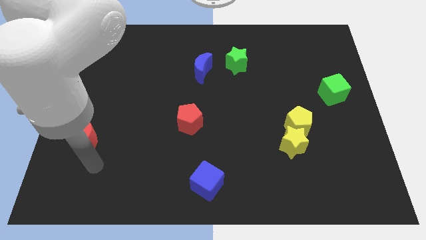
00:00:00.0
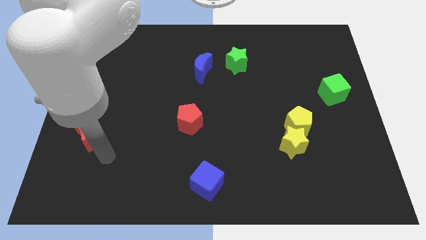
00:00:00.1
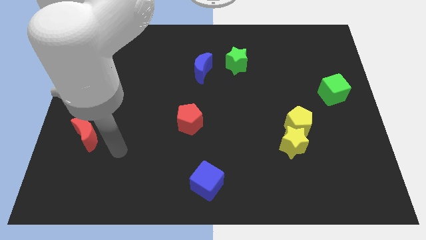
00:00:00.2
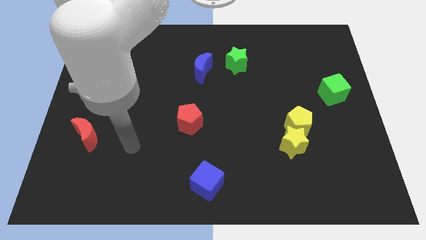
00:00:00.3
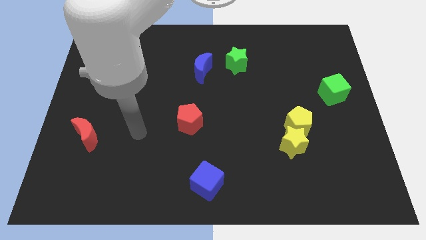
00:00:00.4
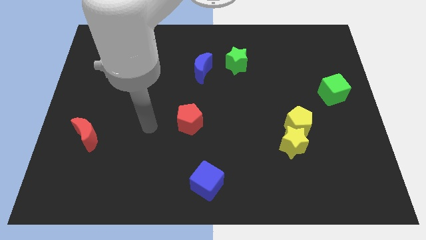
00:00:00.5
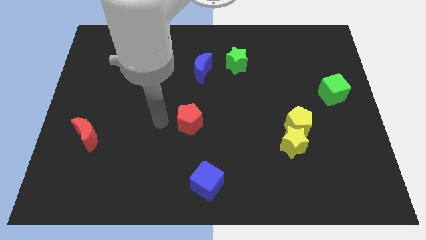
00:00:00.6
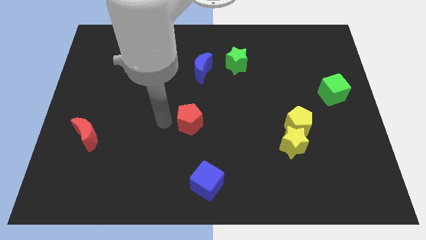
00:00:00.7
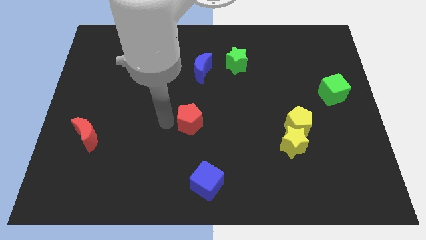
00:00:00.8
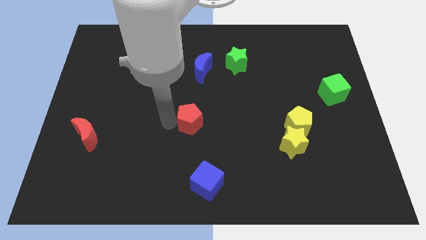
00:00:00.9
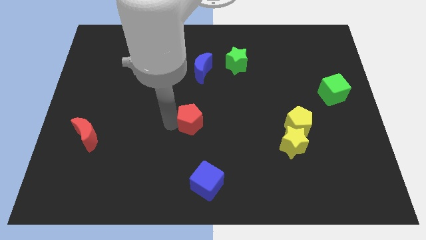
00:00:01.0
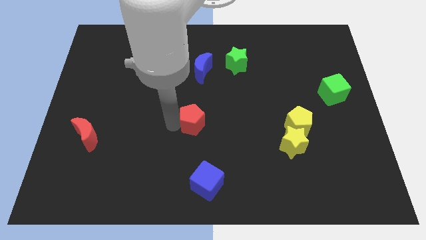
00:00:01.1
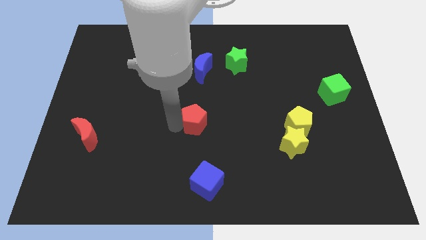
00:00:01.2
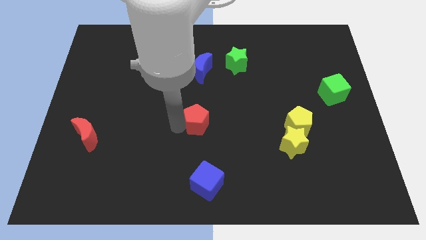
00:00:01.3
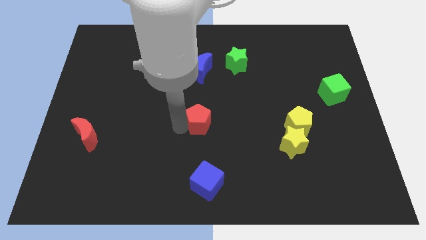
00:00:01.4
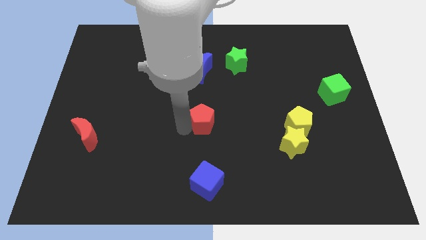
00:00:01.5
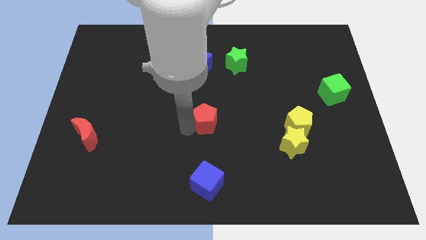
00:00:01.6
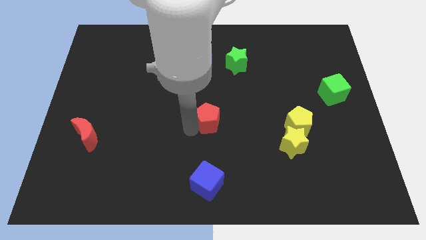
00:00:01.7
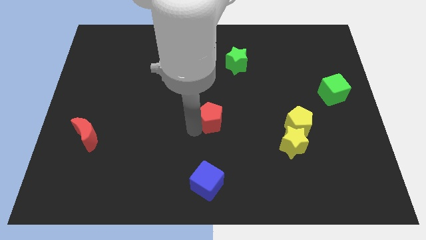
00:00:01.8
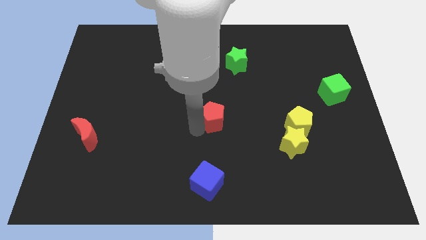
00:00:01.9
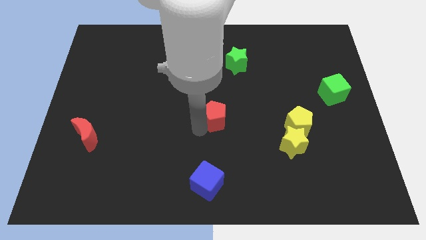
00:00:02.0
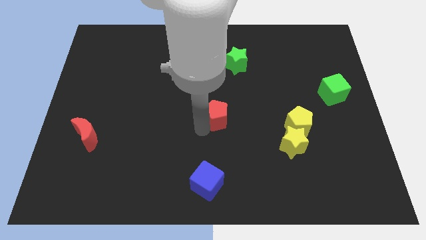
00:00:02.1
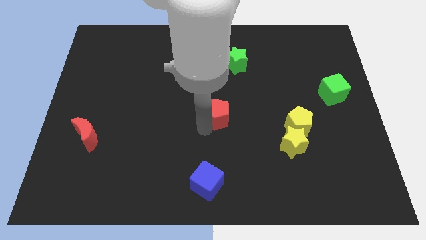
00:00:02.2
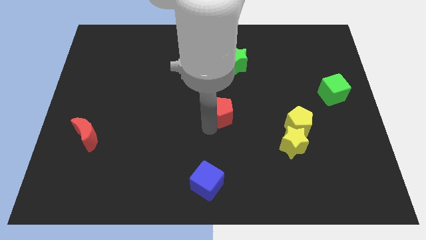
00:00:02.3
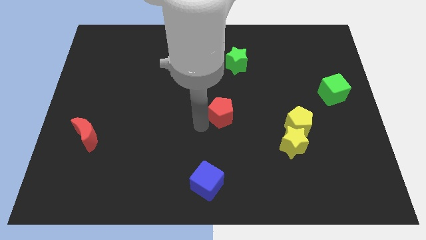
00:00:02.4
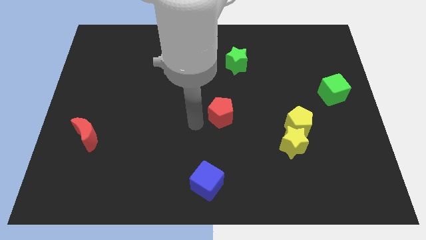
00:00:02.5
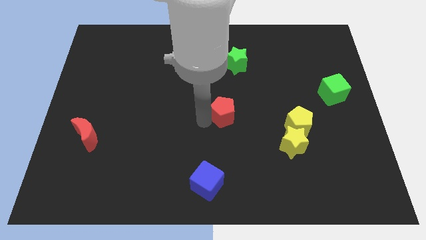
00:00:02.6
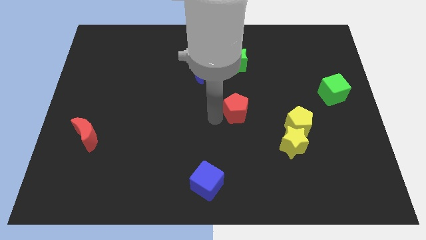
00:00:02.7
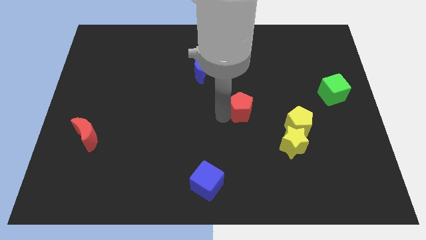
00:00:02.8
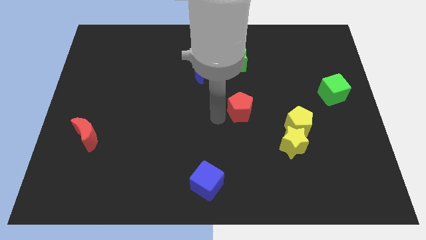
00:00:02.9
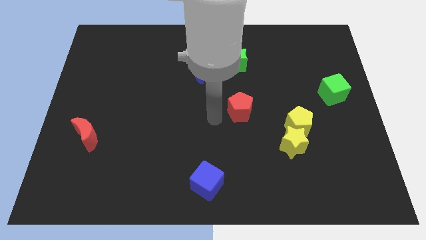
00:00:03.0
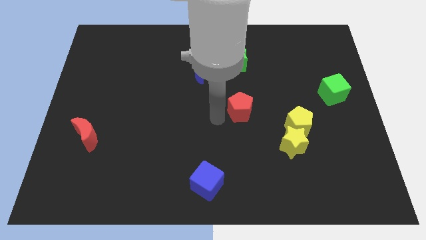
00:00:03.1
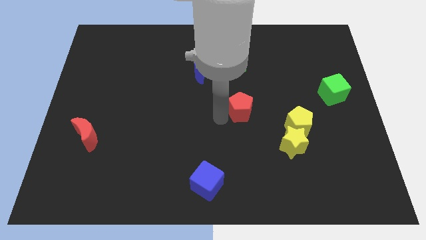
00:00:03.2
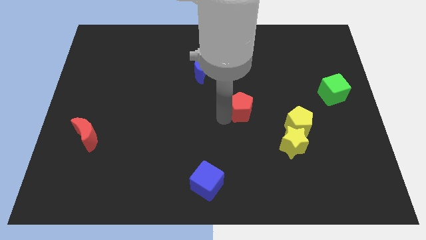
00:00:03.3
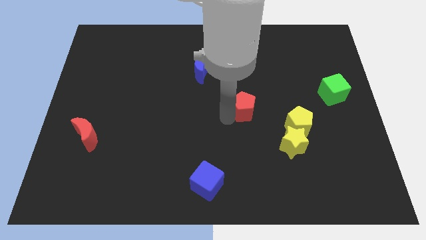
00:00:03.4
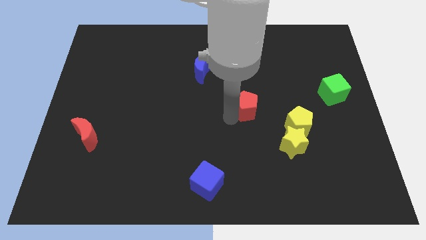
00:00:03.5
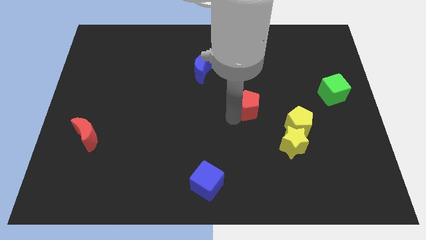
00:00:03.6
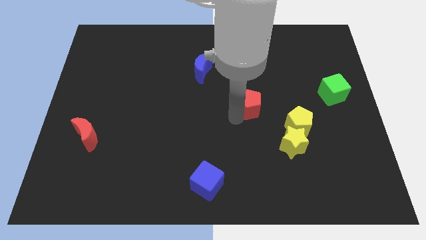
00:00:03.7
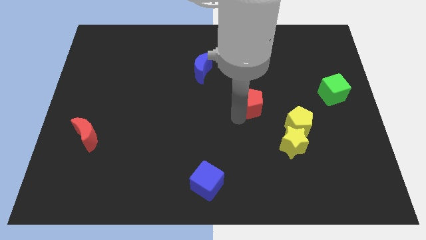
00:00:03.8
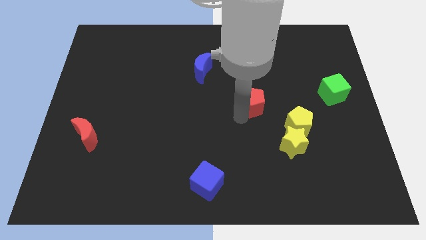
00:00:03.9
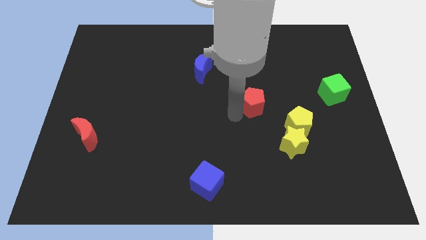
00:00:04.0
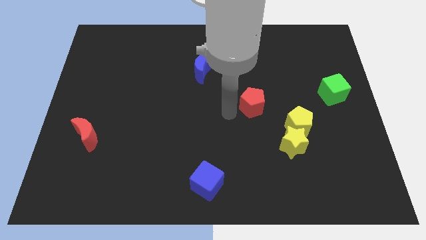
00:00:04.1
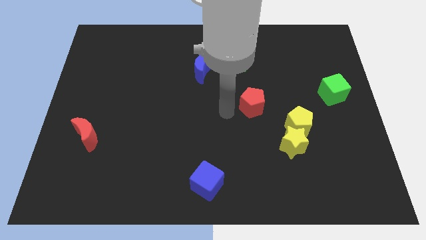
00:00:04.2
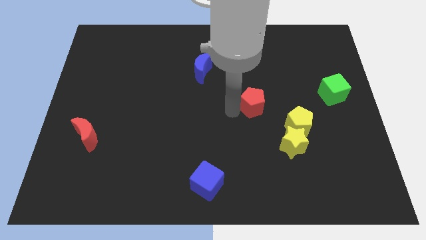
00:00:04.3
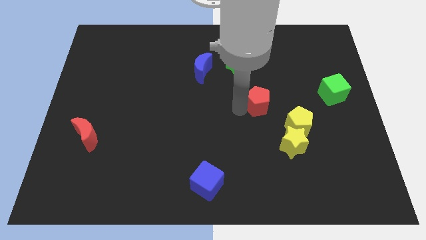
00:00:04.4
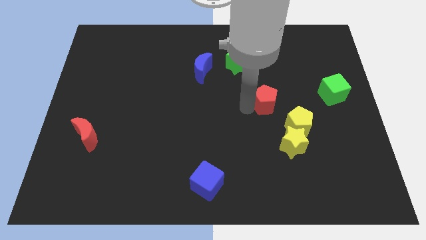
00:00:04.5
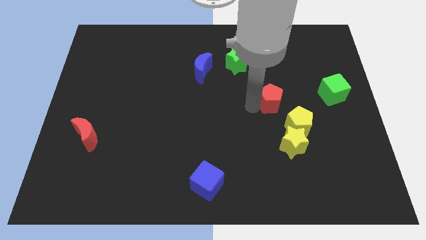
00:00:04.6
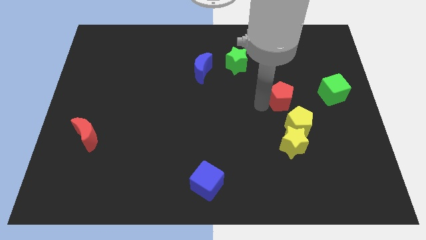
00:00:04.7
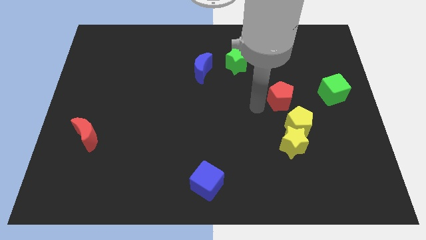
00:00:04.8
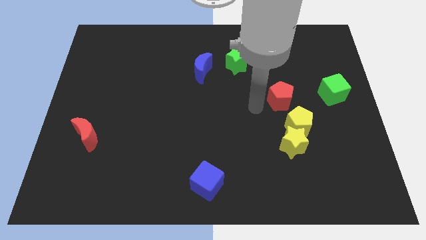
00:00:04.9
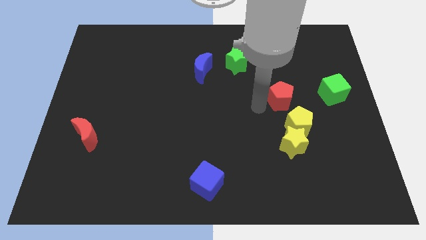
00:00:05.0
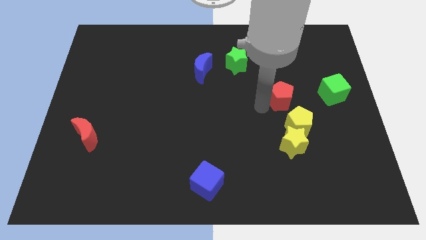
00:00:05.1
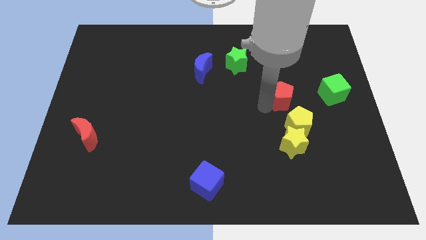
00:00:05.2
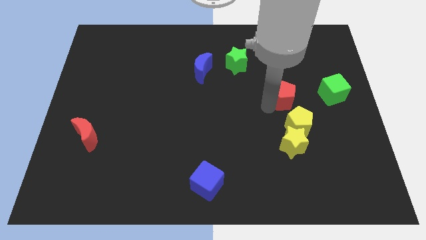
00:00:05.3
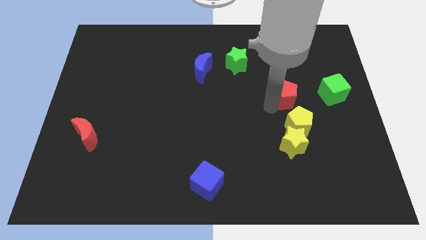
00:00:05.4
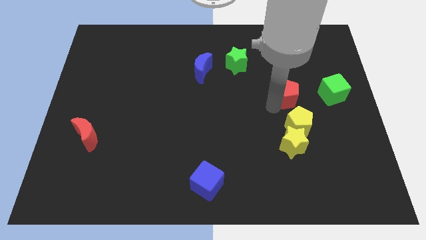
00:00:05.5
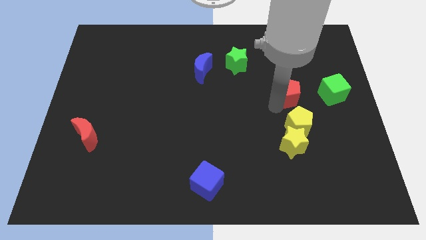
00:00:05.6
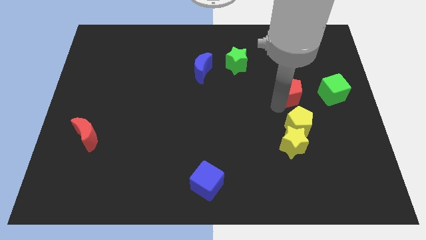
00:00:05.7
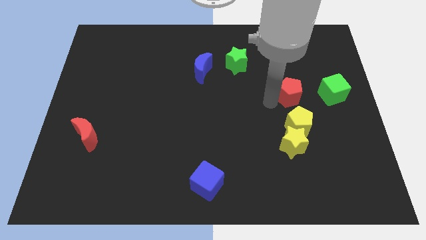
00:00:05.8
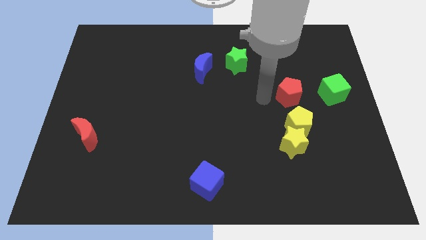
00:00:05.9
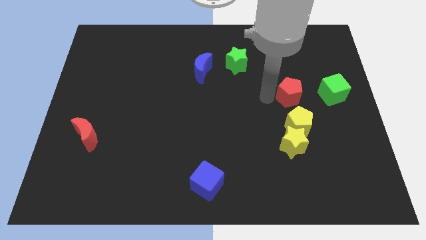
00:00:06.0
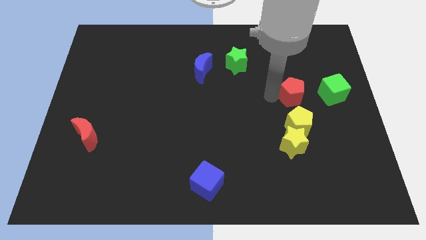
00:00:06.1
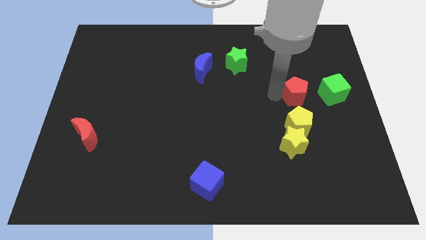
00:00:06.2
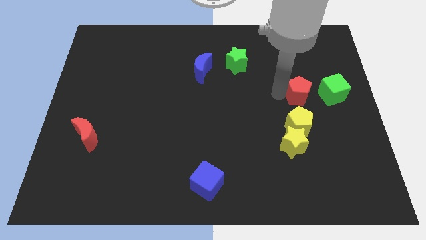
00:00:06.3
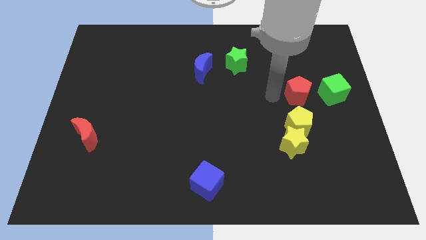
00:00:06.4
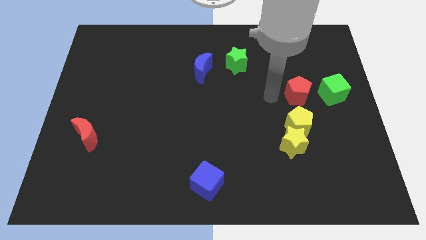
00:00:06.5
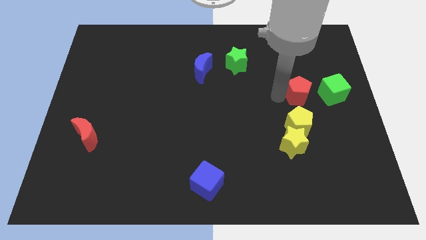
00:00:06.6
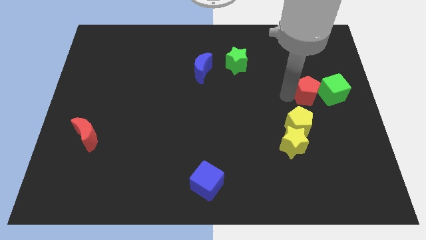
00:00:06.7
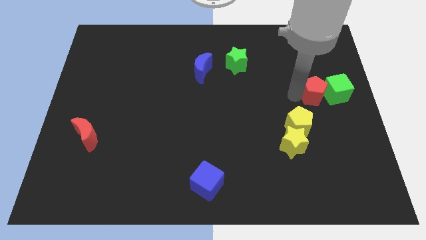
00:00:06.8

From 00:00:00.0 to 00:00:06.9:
push the red pentagon next to the green cube
